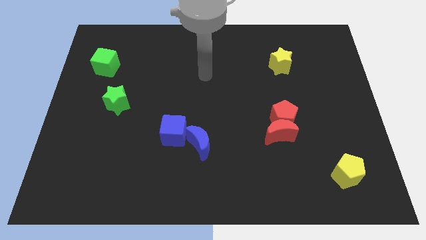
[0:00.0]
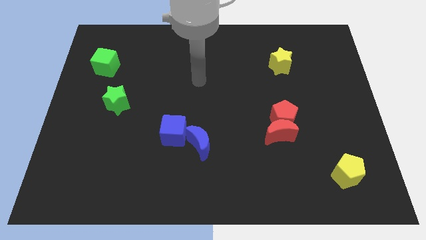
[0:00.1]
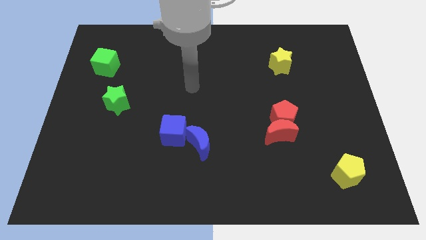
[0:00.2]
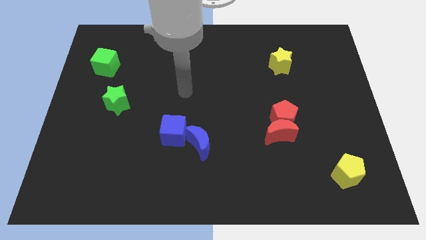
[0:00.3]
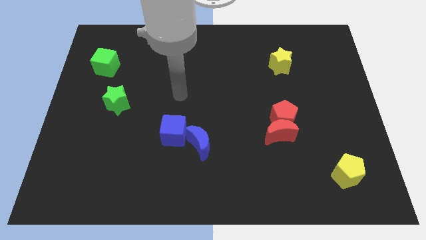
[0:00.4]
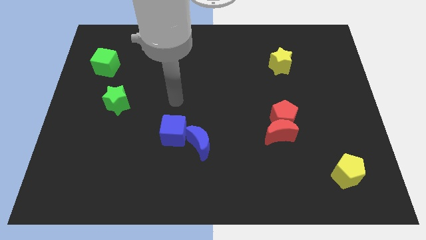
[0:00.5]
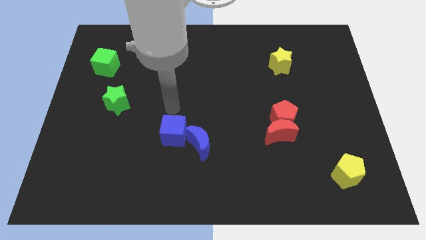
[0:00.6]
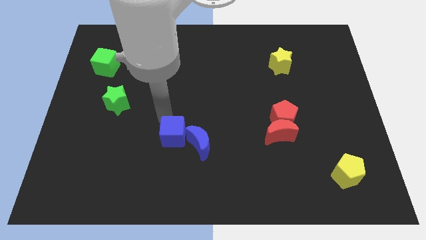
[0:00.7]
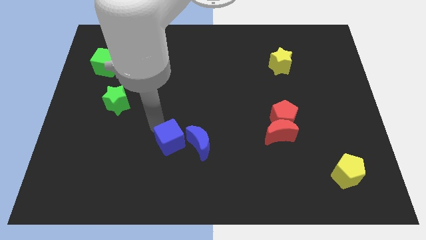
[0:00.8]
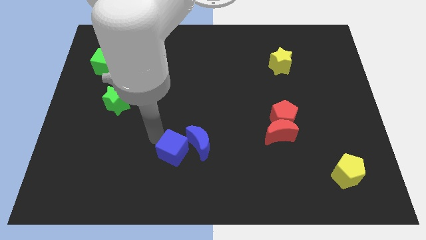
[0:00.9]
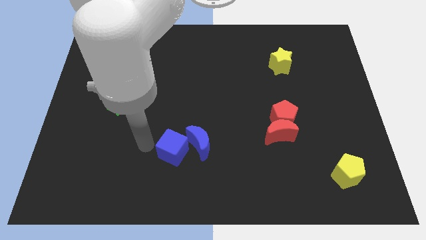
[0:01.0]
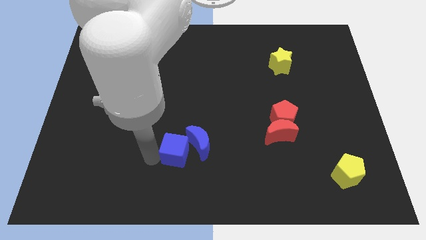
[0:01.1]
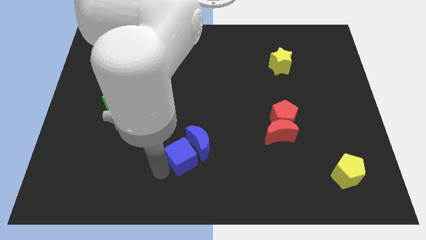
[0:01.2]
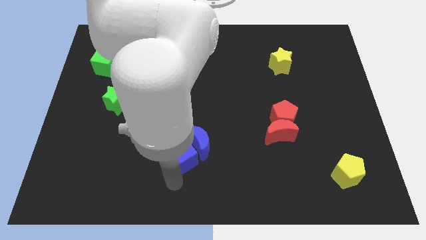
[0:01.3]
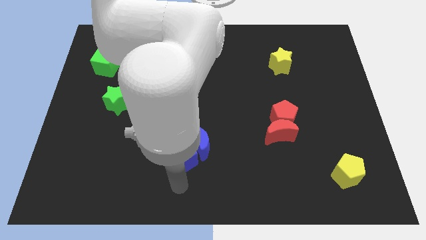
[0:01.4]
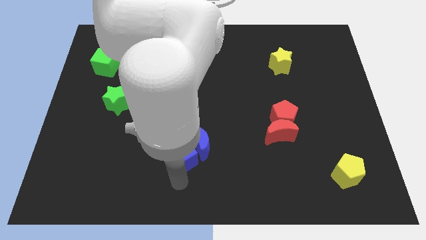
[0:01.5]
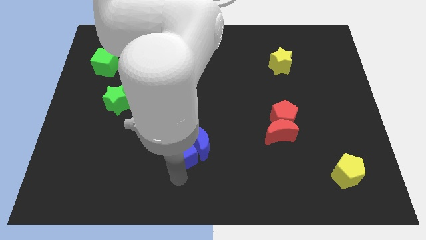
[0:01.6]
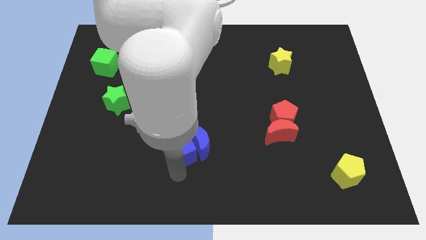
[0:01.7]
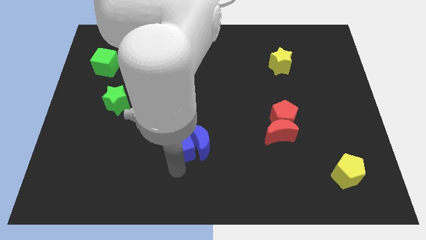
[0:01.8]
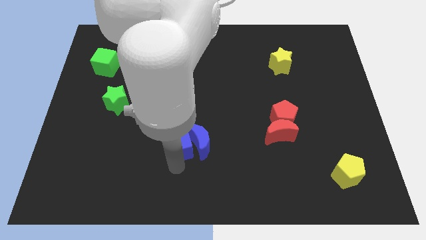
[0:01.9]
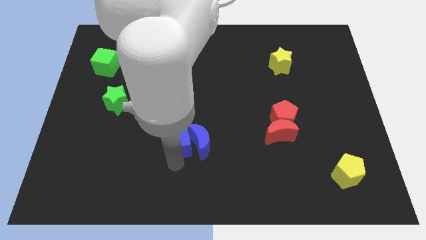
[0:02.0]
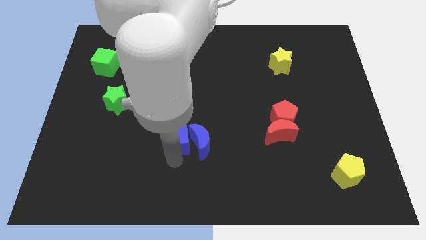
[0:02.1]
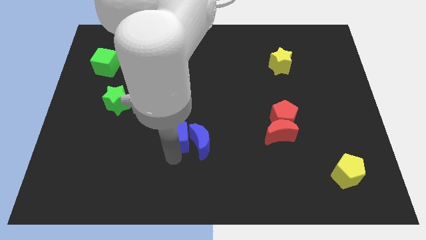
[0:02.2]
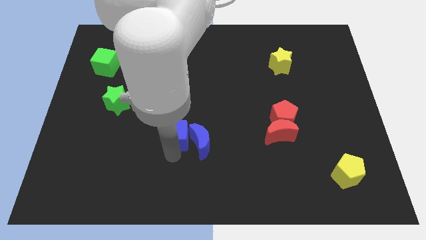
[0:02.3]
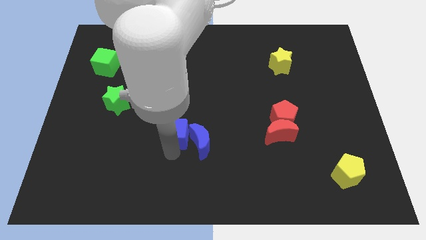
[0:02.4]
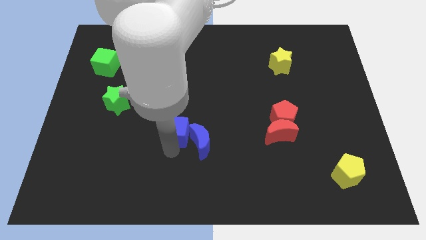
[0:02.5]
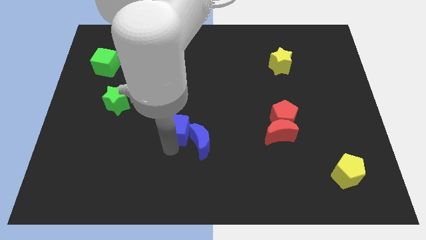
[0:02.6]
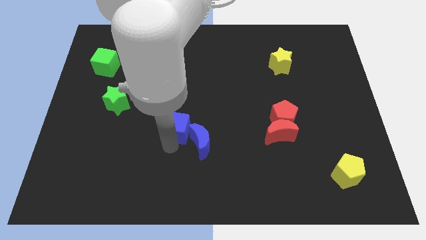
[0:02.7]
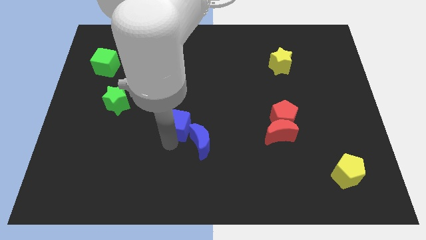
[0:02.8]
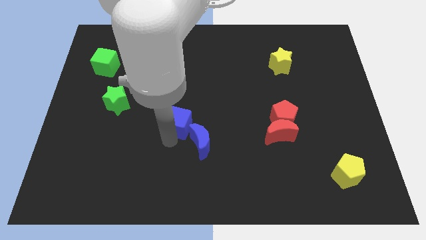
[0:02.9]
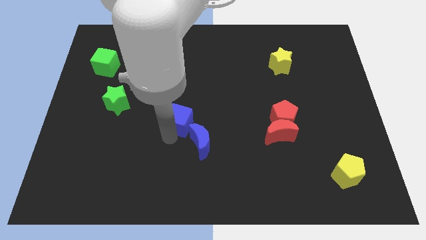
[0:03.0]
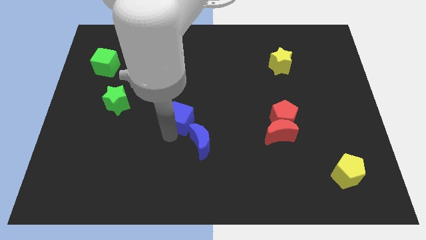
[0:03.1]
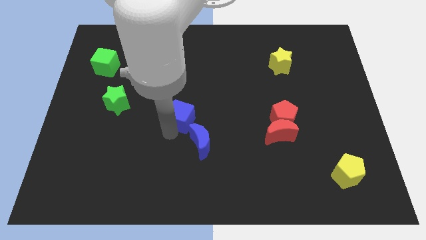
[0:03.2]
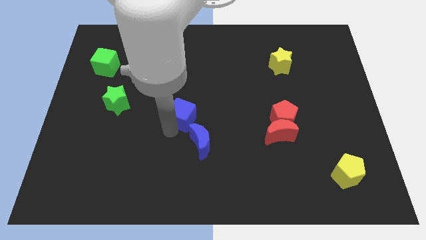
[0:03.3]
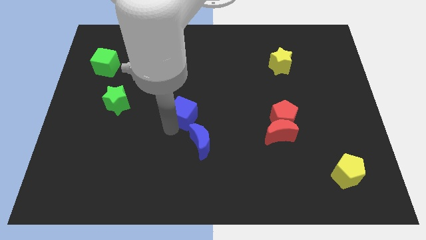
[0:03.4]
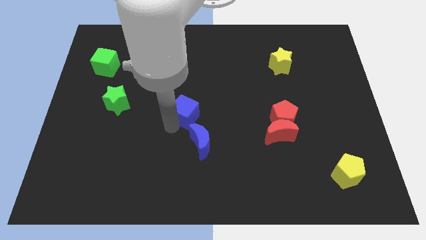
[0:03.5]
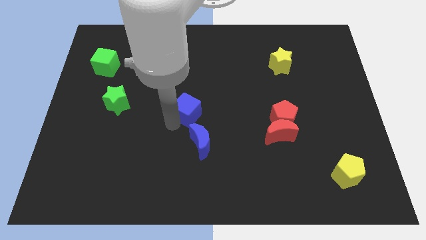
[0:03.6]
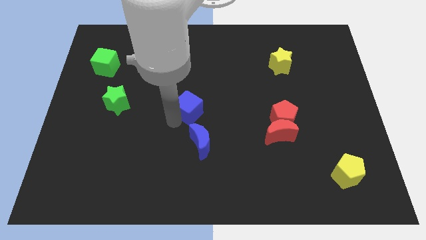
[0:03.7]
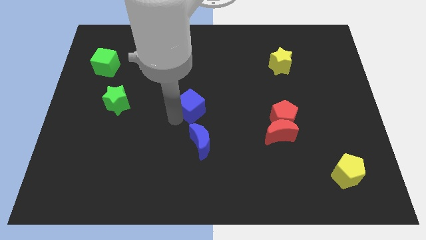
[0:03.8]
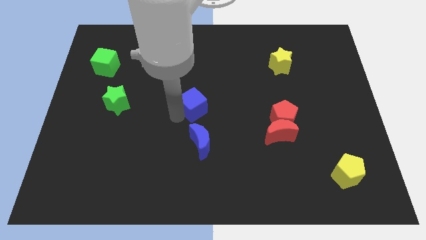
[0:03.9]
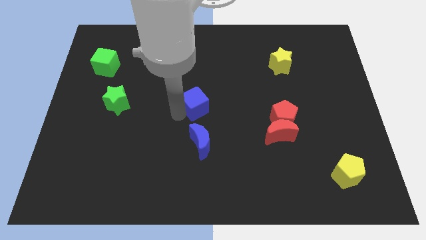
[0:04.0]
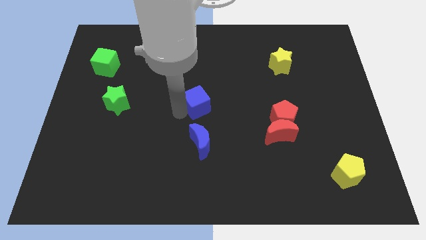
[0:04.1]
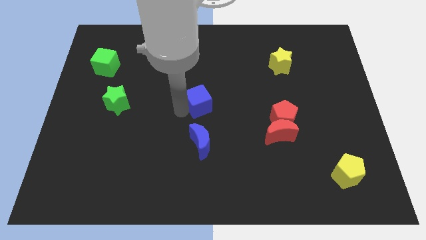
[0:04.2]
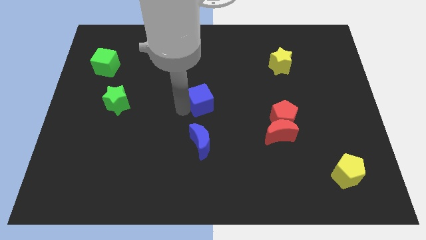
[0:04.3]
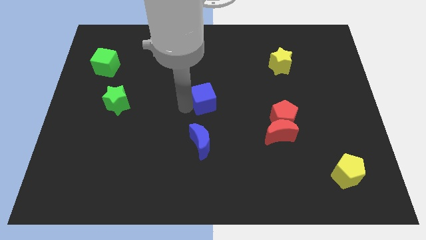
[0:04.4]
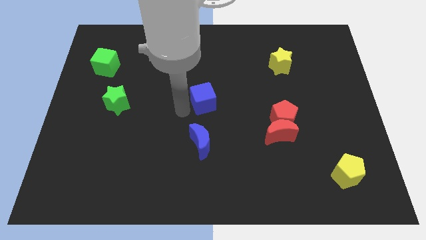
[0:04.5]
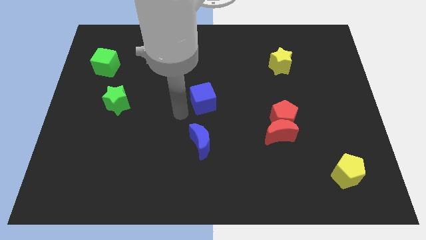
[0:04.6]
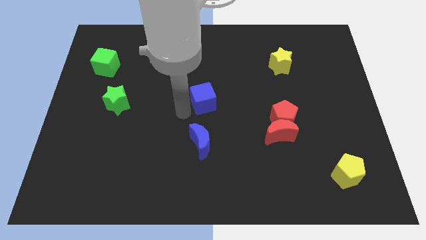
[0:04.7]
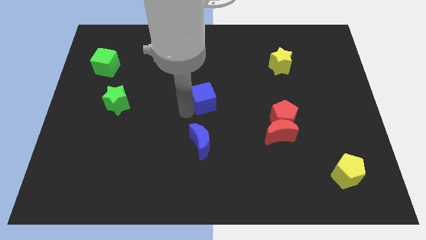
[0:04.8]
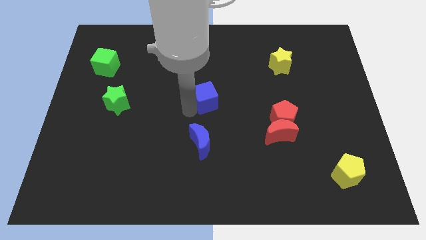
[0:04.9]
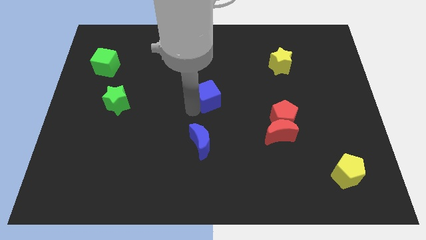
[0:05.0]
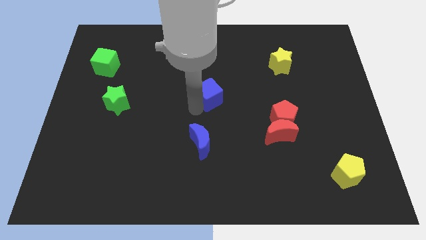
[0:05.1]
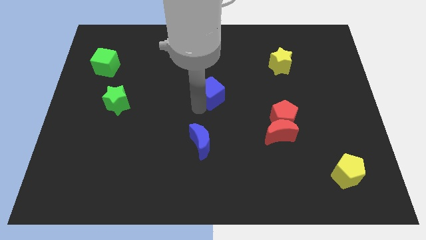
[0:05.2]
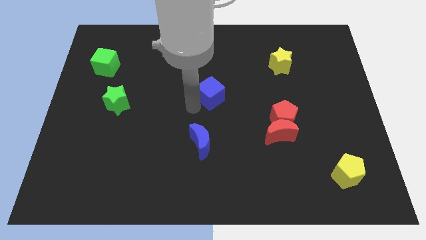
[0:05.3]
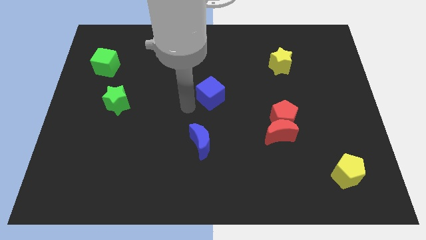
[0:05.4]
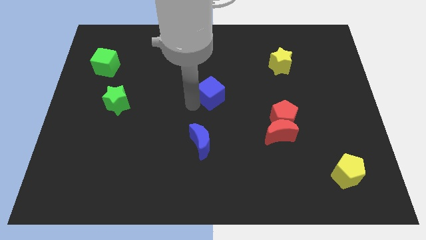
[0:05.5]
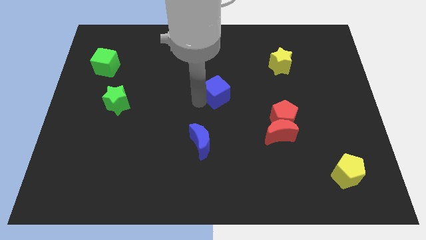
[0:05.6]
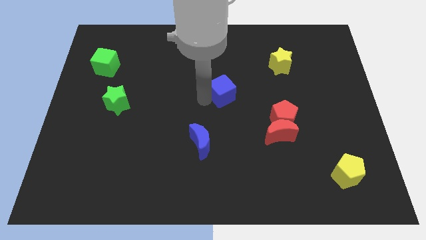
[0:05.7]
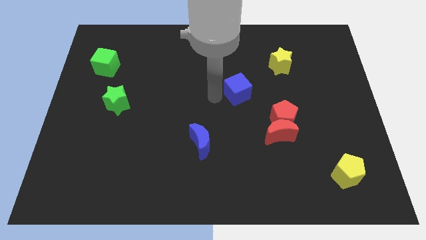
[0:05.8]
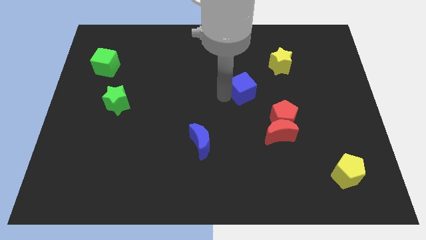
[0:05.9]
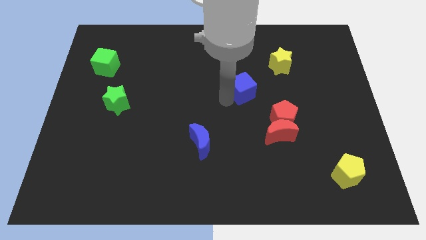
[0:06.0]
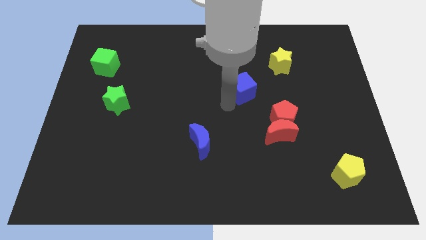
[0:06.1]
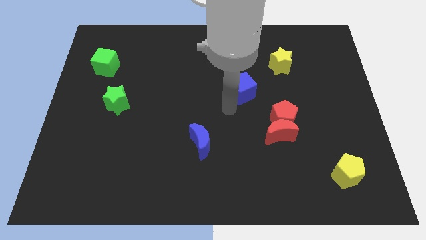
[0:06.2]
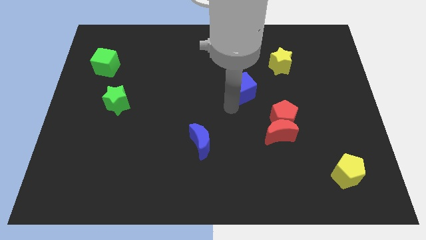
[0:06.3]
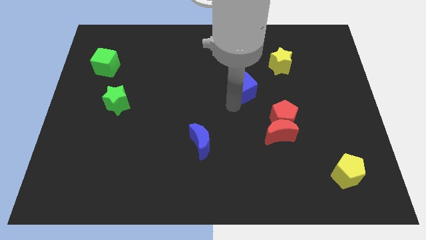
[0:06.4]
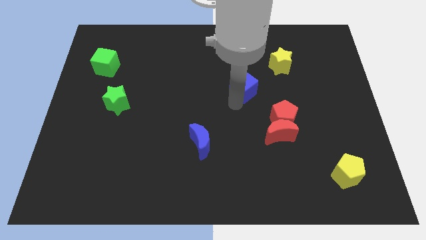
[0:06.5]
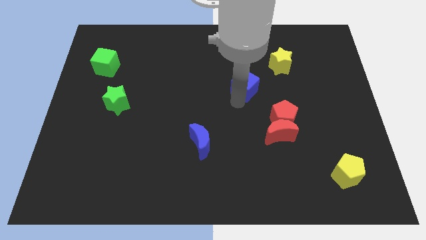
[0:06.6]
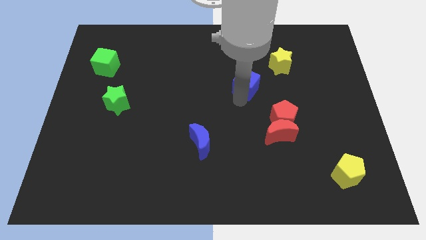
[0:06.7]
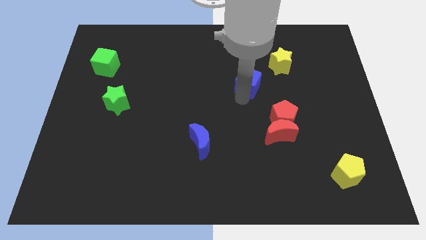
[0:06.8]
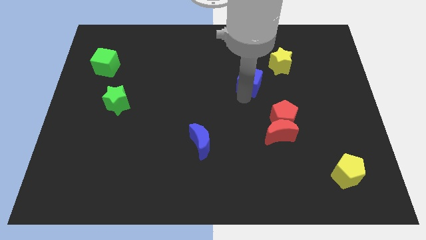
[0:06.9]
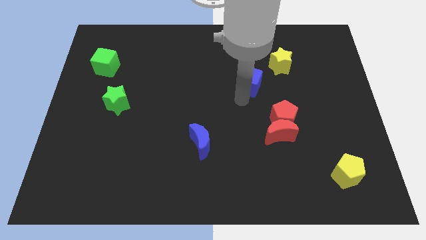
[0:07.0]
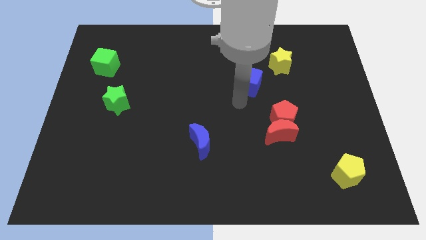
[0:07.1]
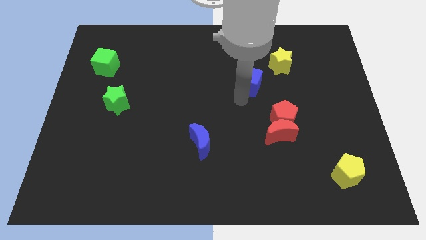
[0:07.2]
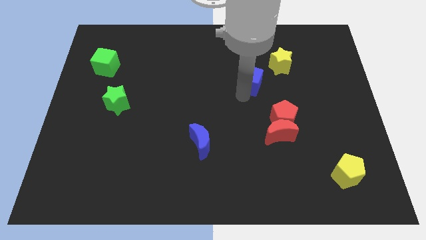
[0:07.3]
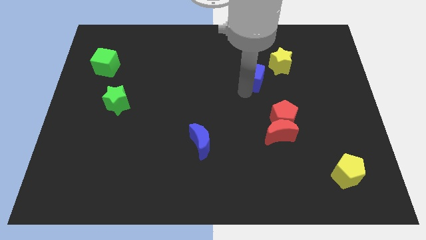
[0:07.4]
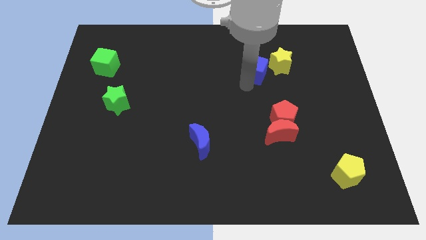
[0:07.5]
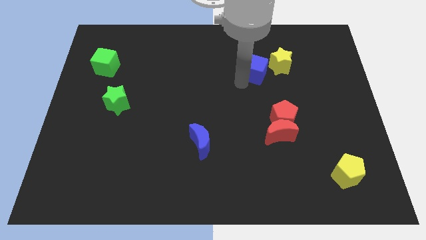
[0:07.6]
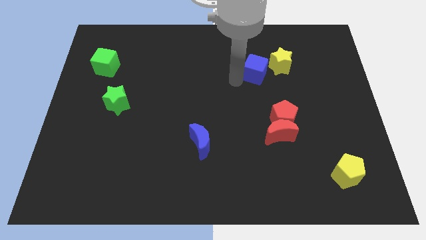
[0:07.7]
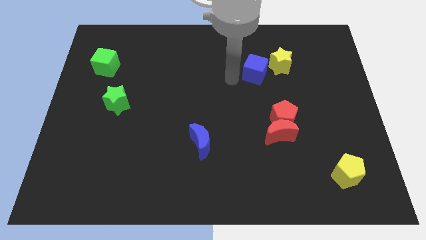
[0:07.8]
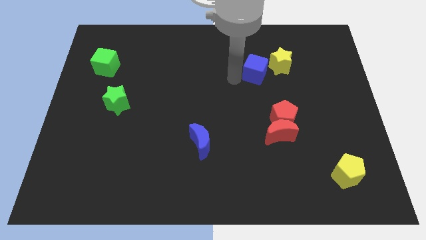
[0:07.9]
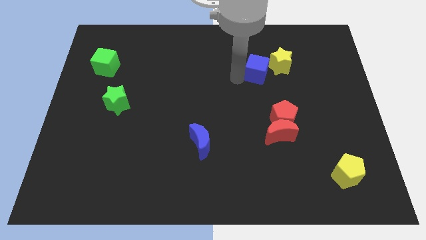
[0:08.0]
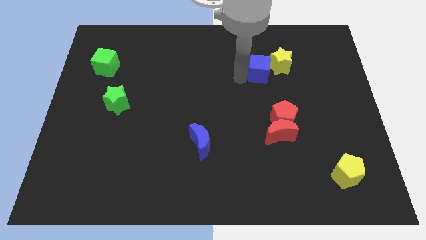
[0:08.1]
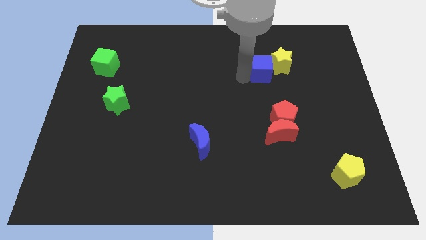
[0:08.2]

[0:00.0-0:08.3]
slide the blue cube towards the yellow star
